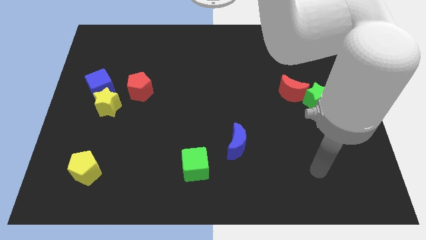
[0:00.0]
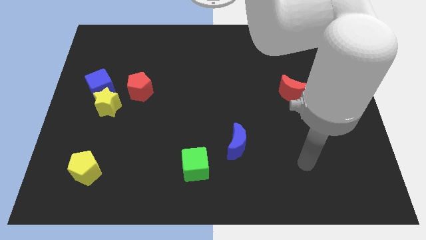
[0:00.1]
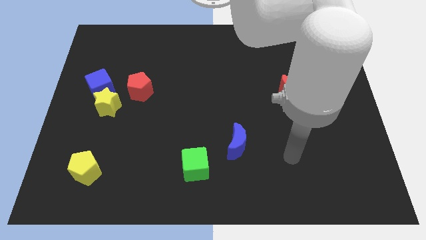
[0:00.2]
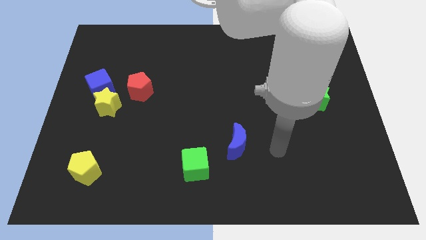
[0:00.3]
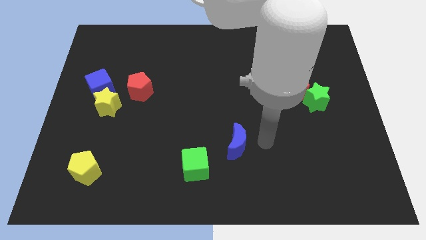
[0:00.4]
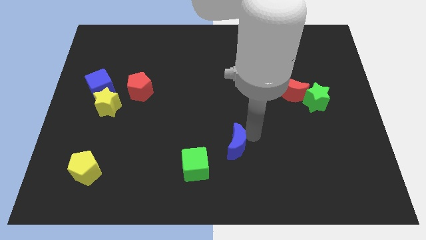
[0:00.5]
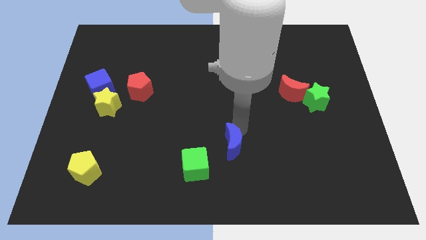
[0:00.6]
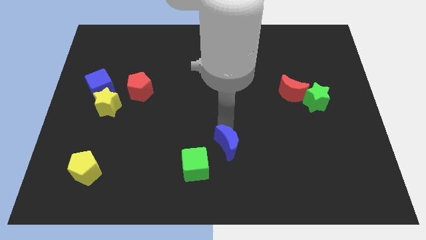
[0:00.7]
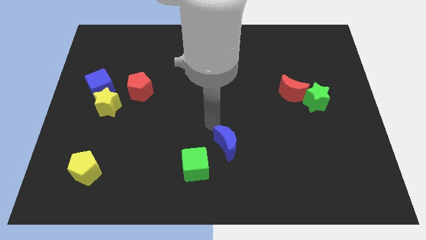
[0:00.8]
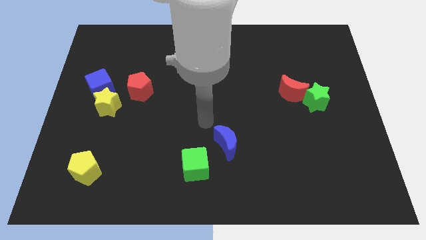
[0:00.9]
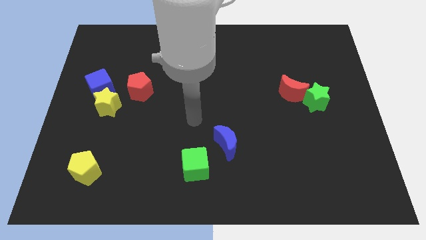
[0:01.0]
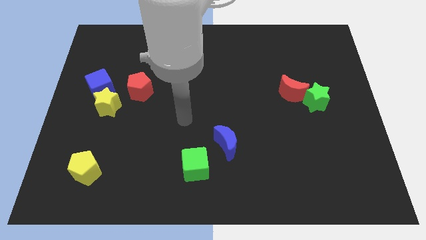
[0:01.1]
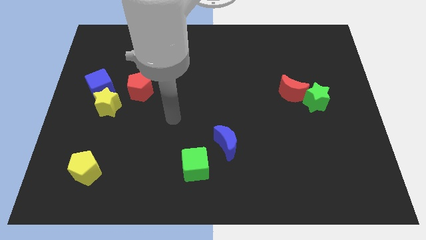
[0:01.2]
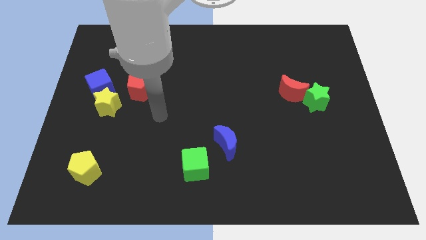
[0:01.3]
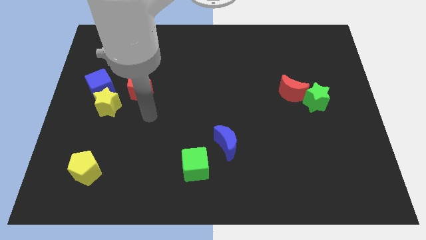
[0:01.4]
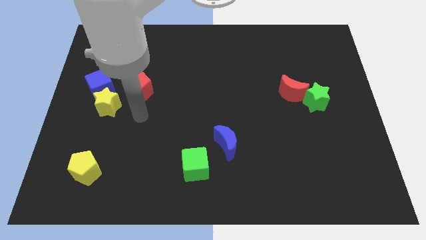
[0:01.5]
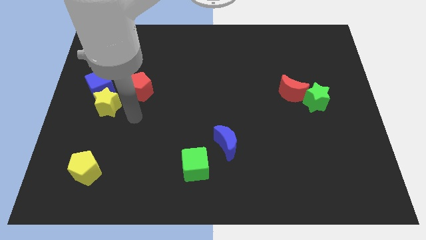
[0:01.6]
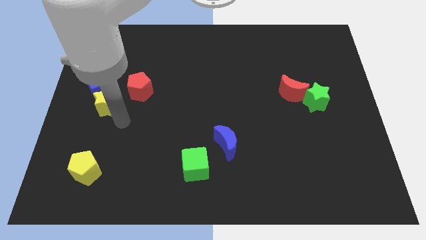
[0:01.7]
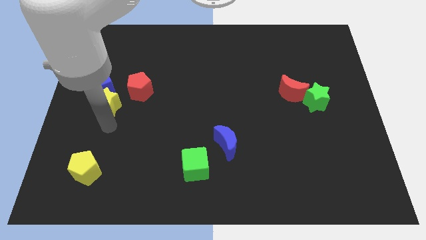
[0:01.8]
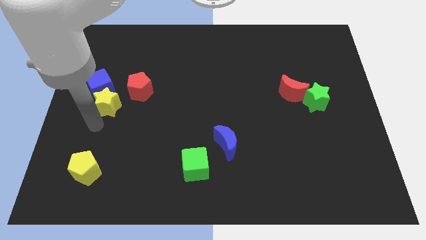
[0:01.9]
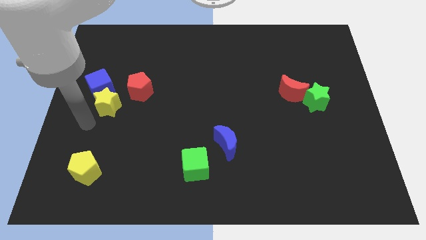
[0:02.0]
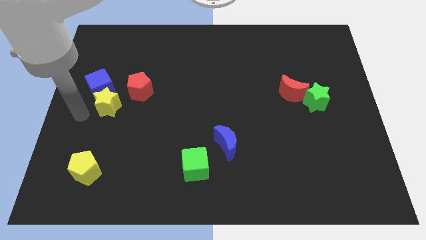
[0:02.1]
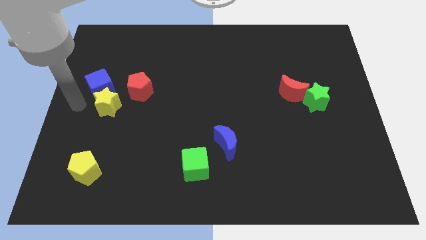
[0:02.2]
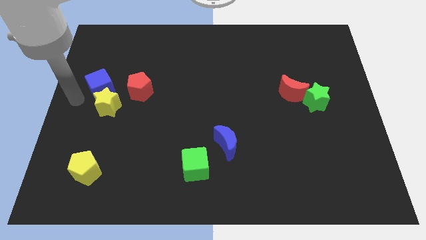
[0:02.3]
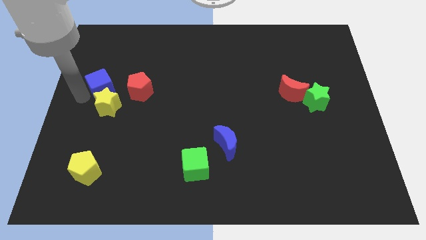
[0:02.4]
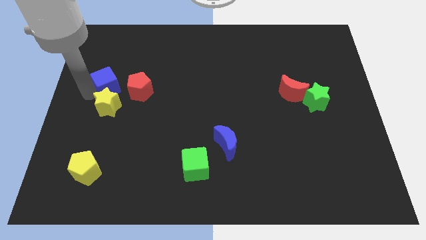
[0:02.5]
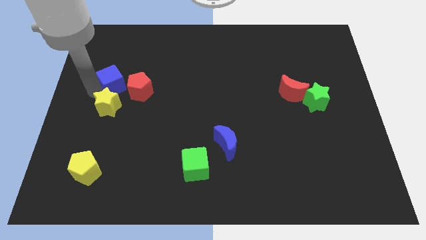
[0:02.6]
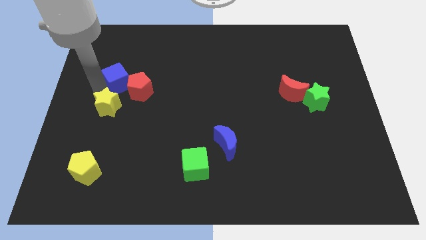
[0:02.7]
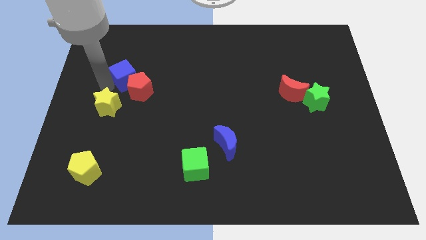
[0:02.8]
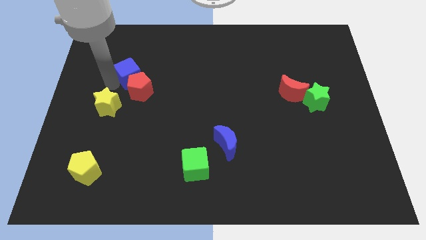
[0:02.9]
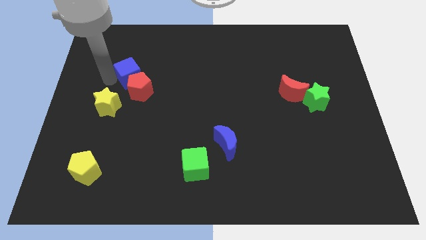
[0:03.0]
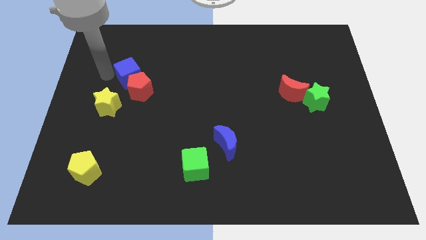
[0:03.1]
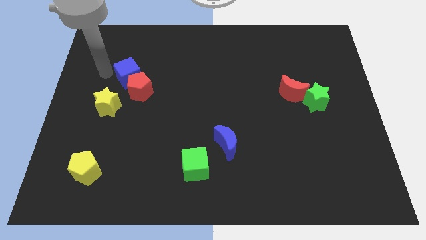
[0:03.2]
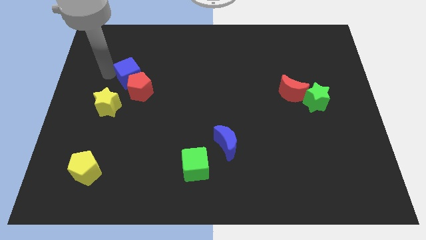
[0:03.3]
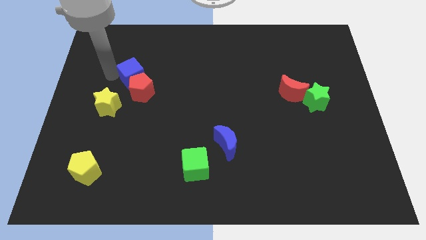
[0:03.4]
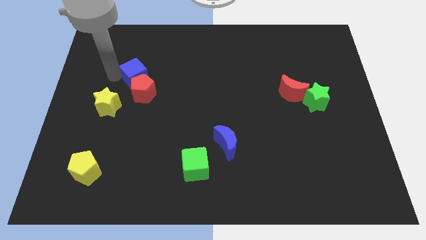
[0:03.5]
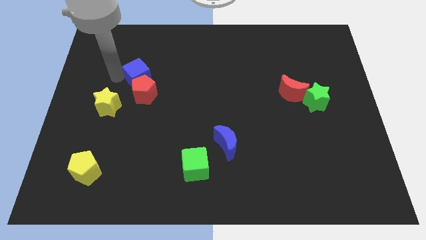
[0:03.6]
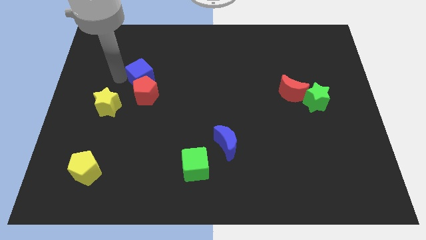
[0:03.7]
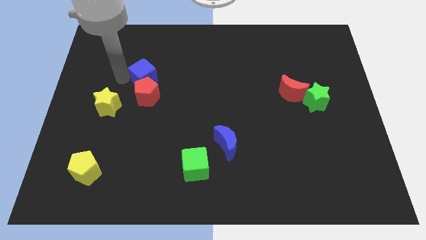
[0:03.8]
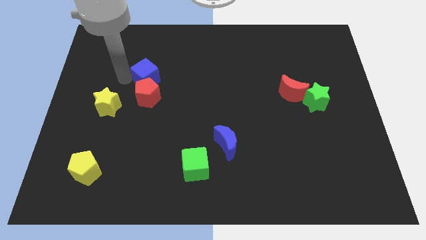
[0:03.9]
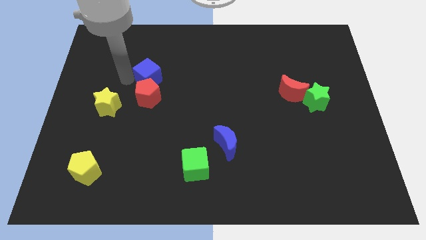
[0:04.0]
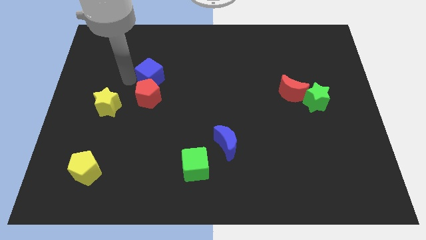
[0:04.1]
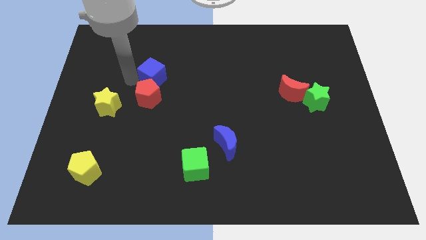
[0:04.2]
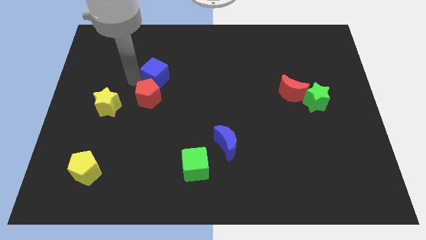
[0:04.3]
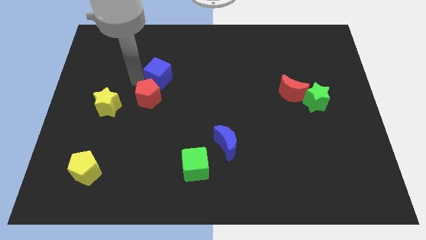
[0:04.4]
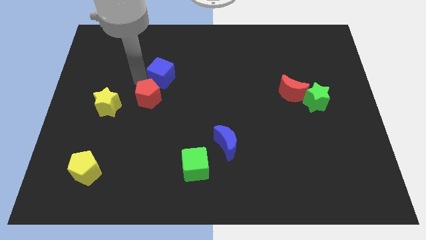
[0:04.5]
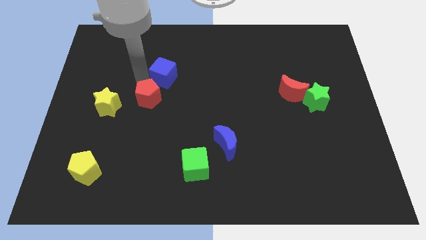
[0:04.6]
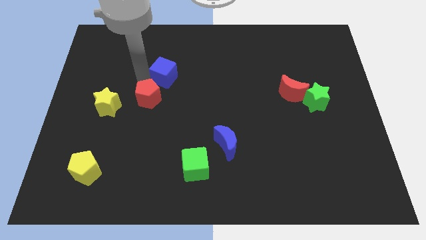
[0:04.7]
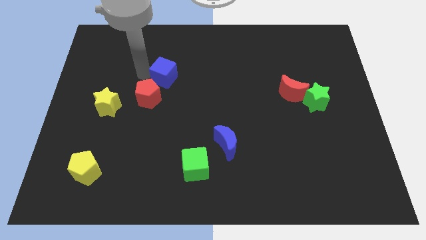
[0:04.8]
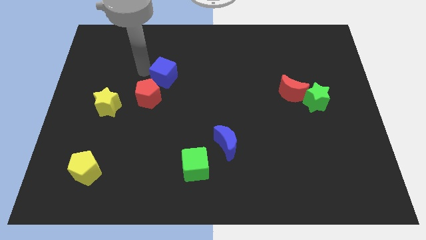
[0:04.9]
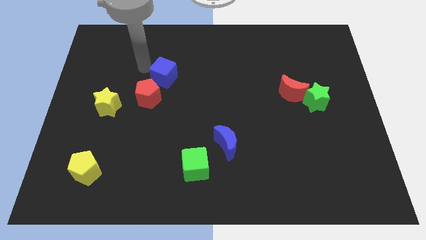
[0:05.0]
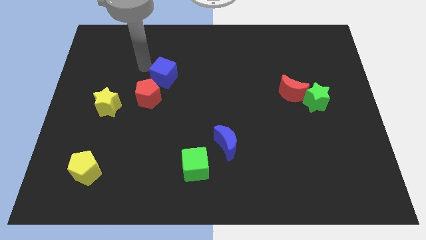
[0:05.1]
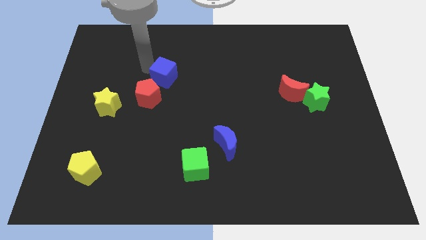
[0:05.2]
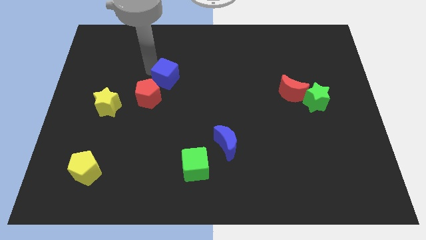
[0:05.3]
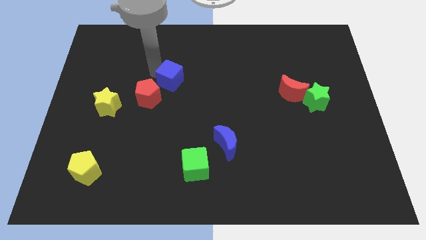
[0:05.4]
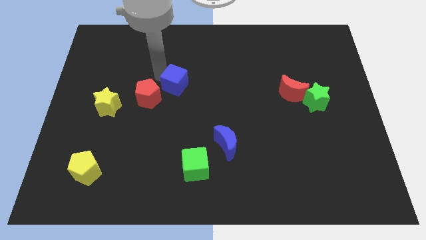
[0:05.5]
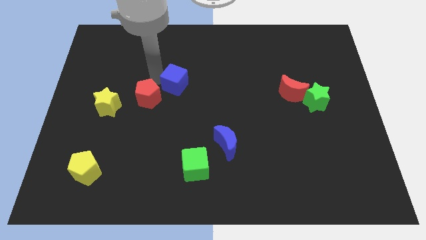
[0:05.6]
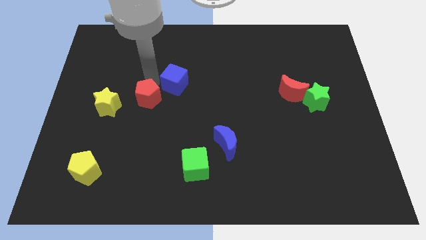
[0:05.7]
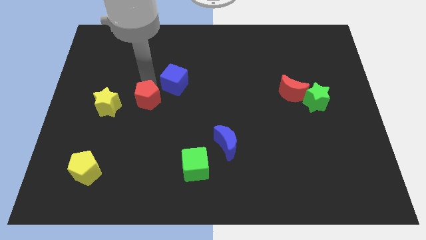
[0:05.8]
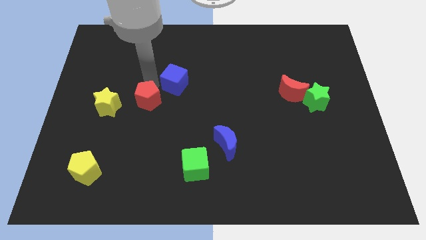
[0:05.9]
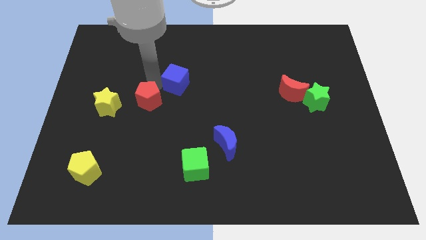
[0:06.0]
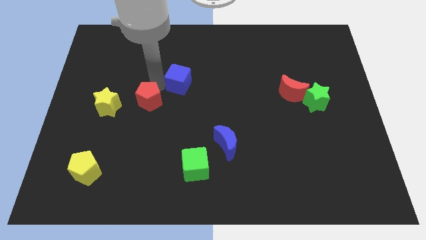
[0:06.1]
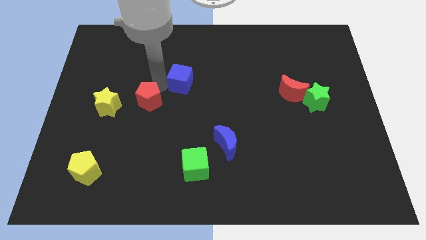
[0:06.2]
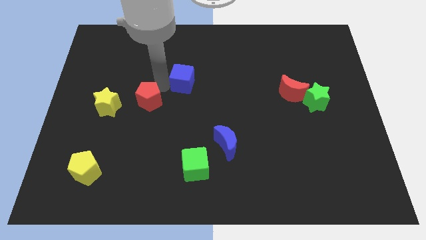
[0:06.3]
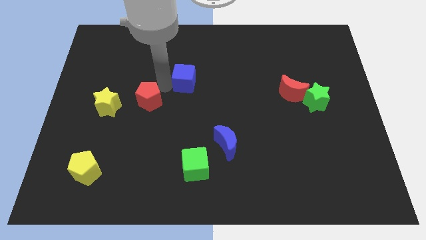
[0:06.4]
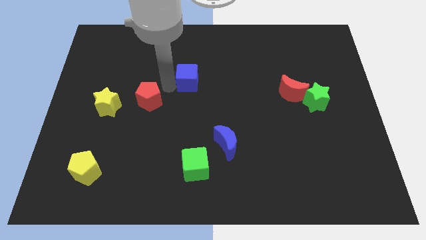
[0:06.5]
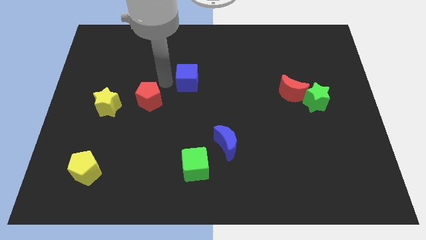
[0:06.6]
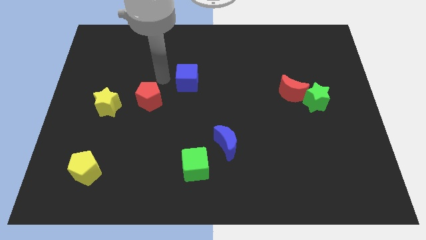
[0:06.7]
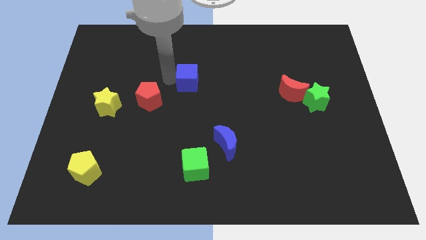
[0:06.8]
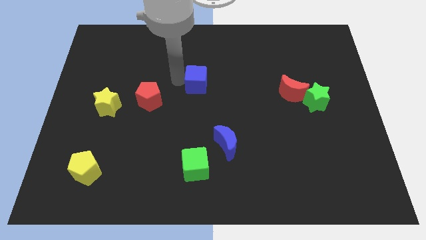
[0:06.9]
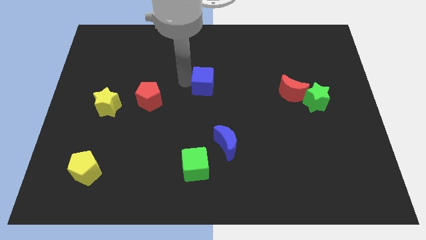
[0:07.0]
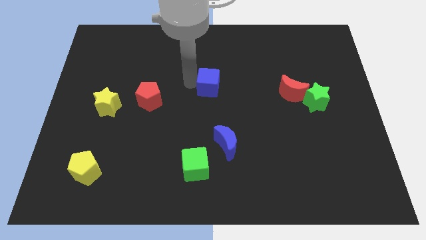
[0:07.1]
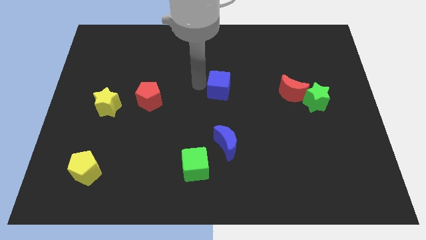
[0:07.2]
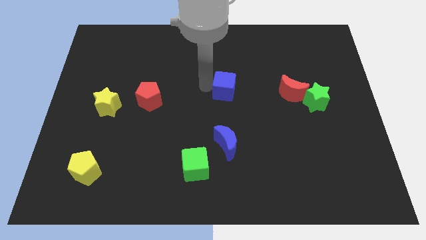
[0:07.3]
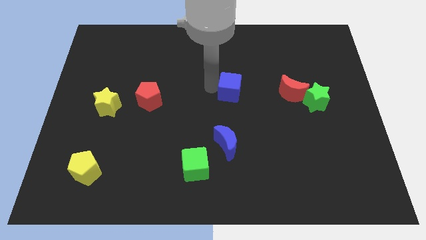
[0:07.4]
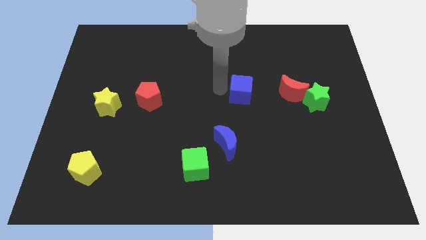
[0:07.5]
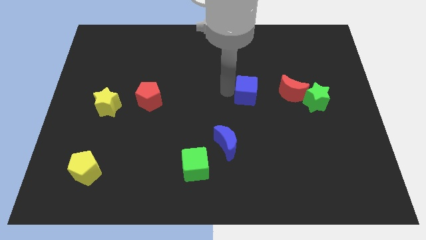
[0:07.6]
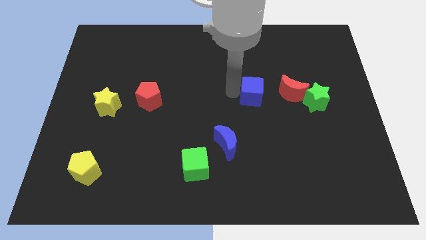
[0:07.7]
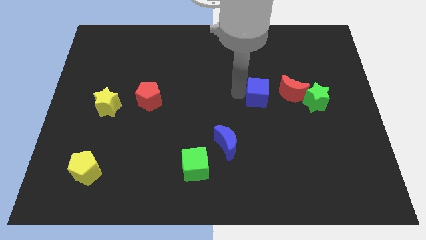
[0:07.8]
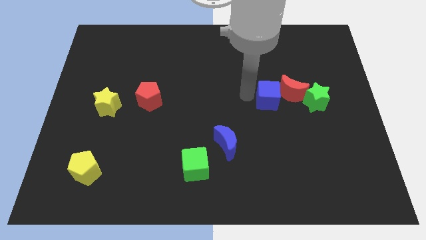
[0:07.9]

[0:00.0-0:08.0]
move the blue cube to the red moon
